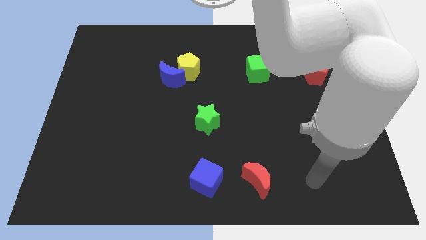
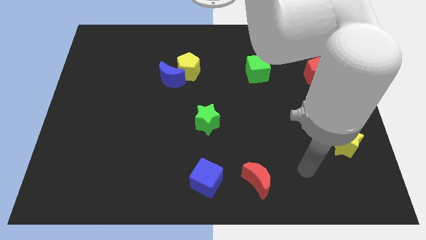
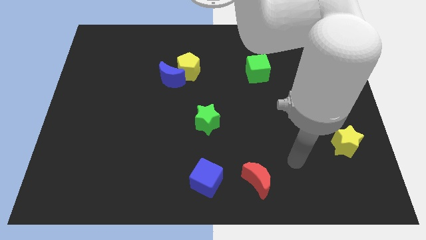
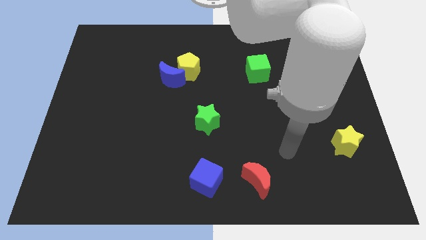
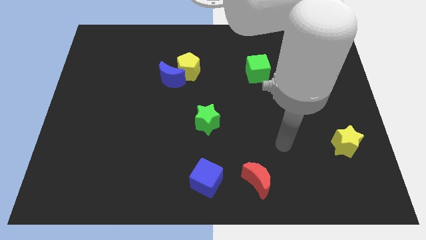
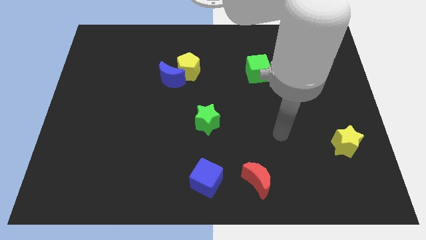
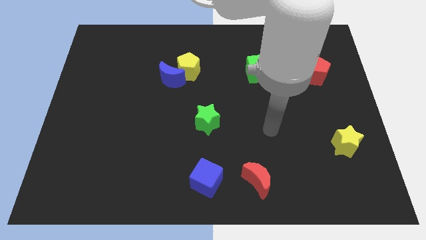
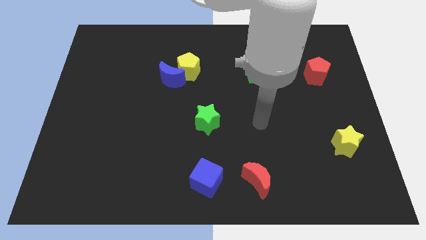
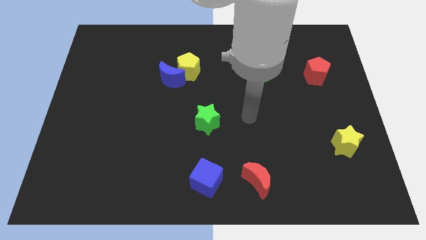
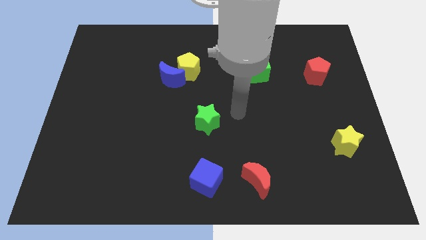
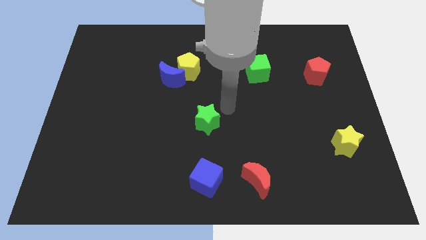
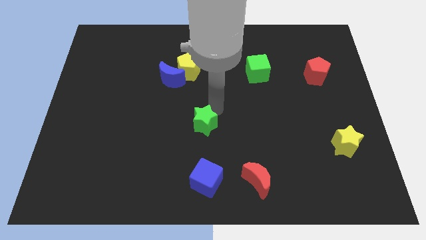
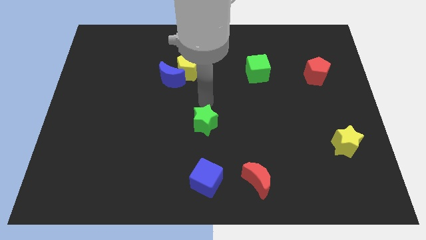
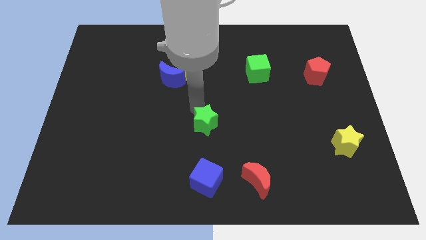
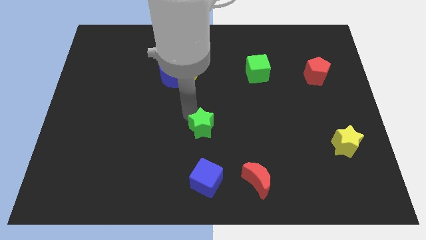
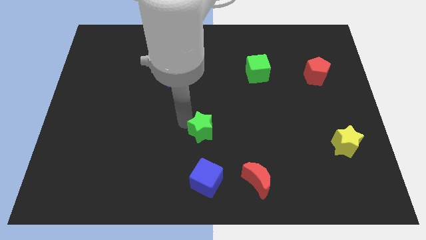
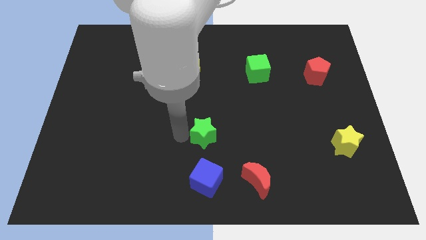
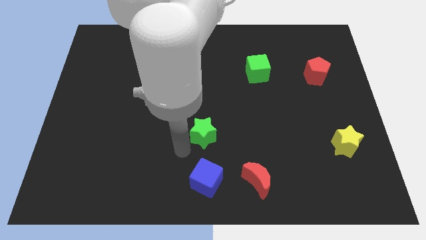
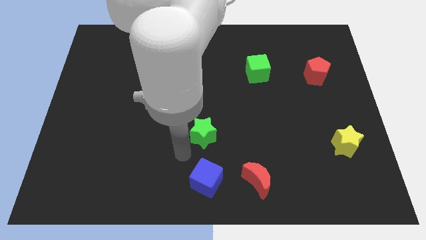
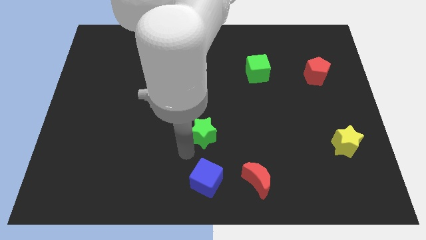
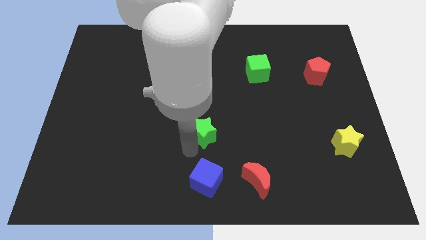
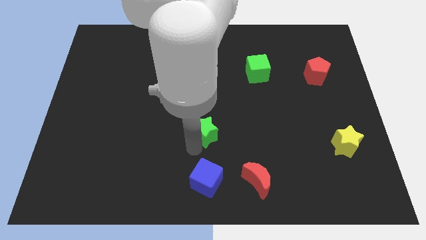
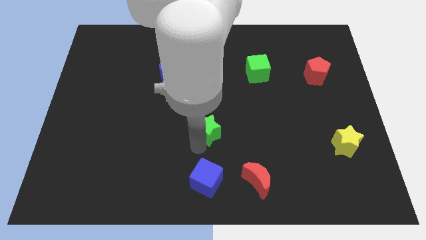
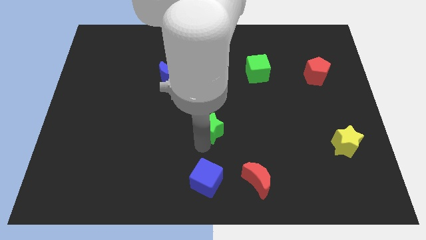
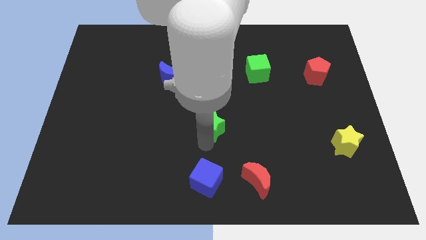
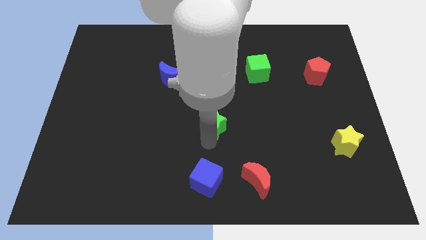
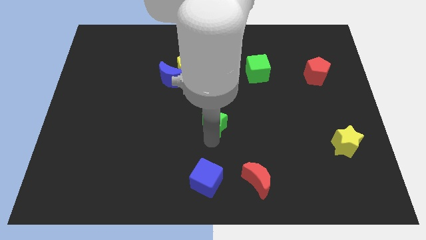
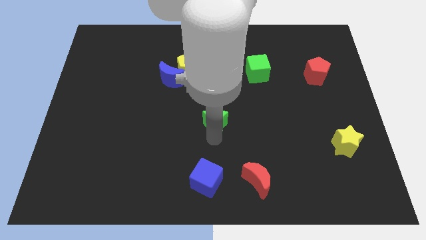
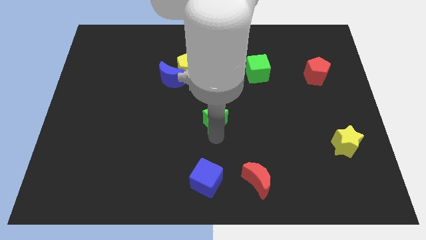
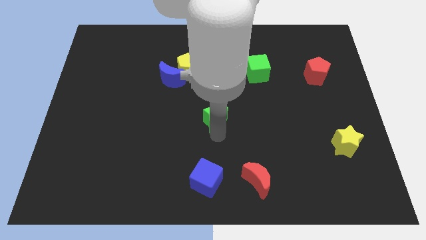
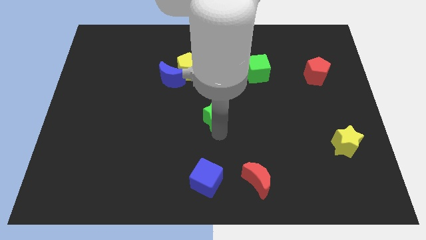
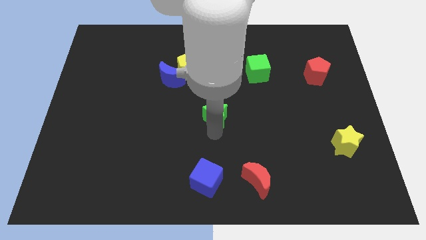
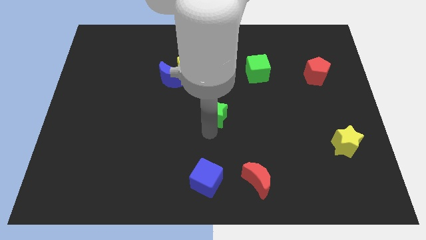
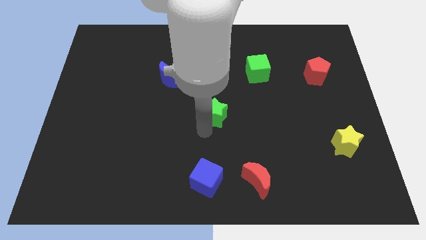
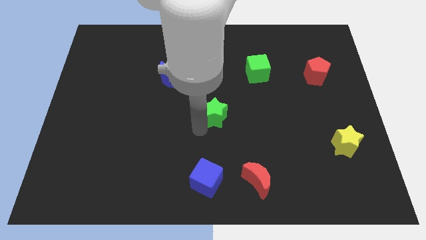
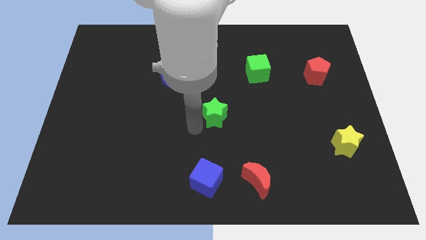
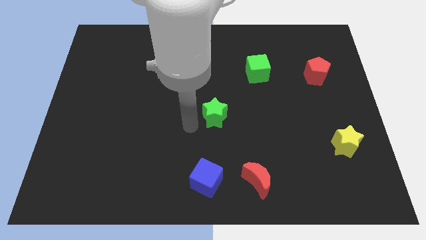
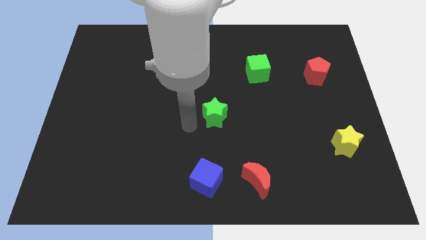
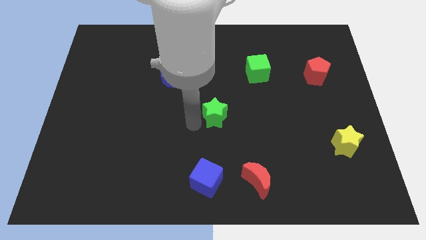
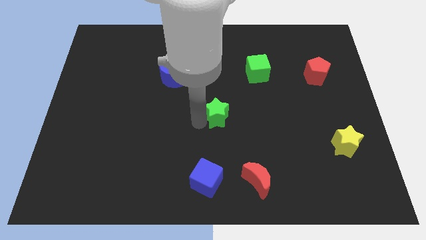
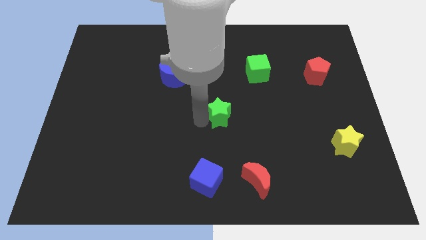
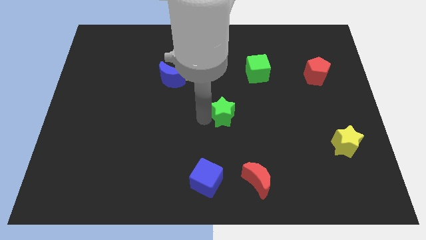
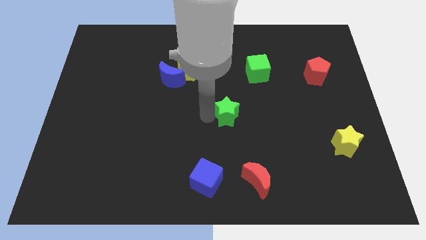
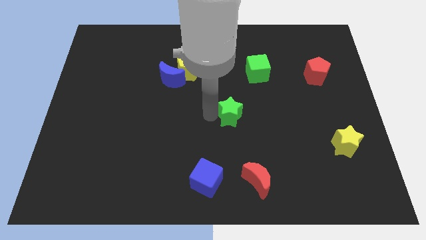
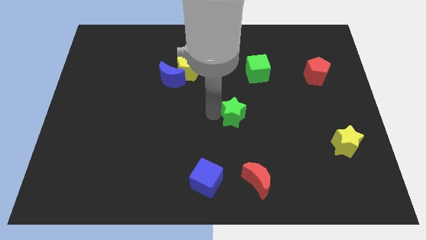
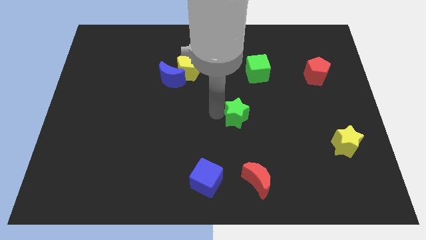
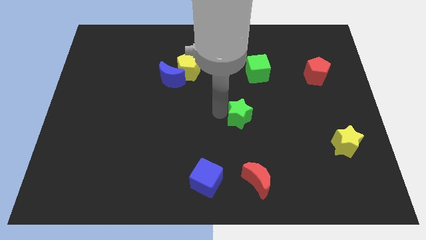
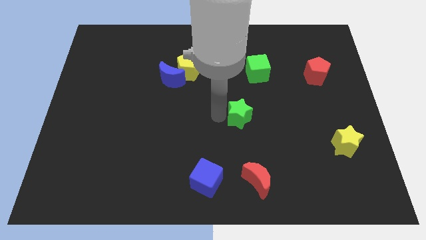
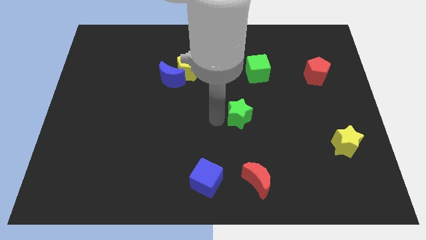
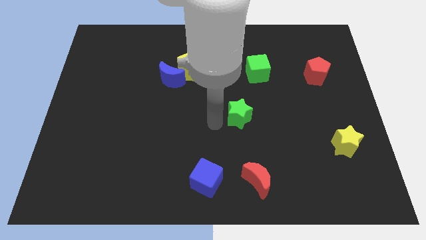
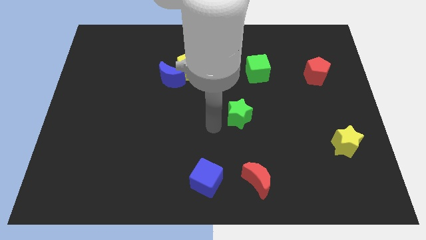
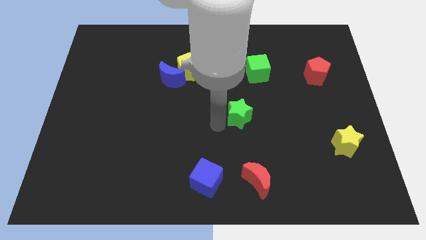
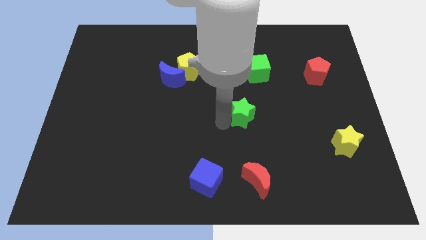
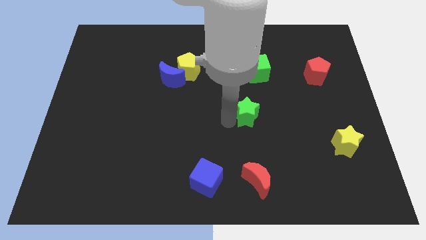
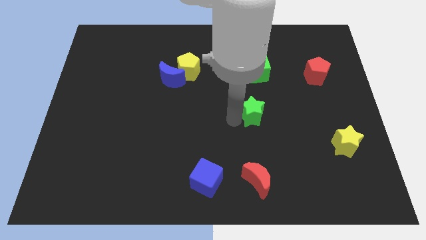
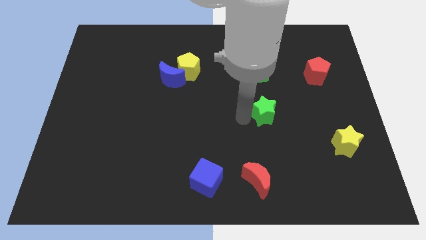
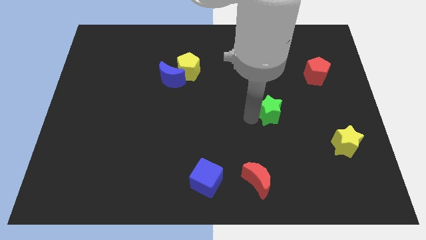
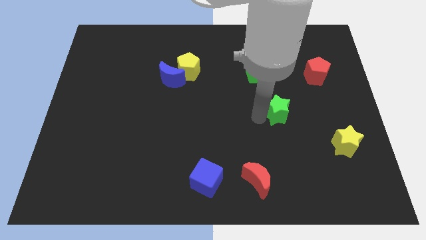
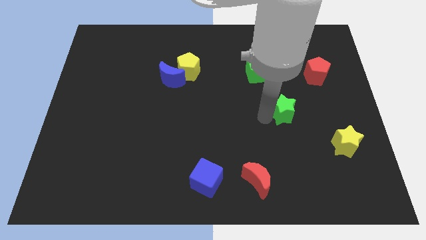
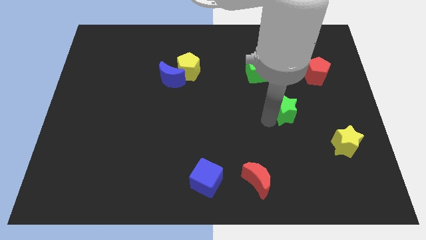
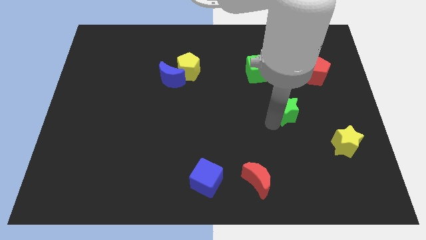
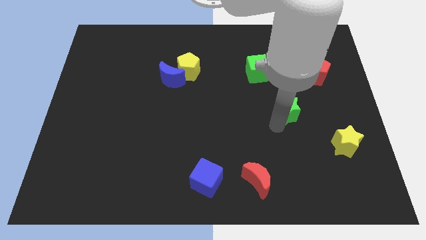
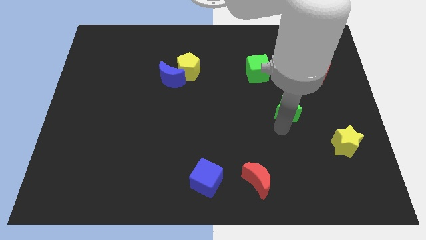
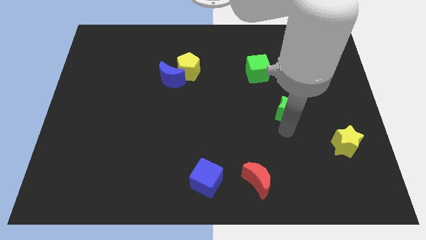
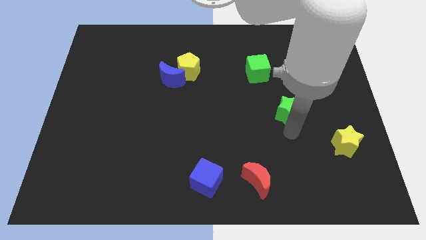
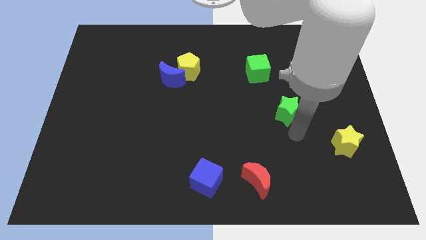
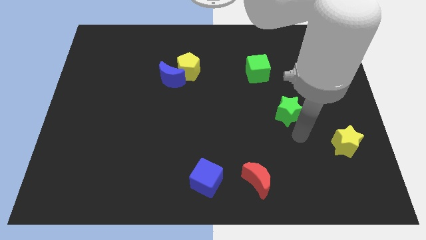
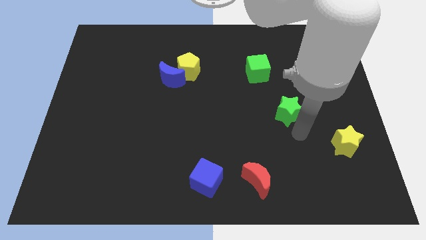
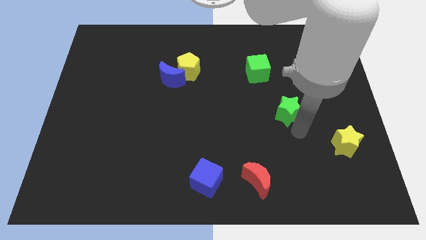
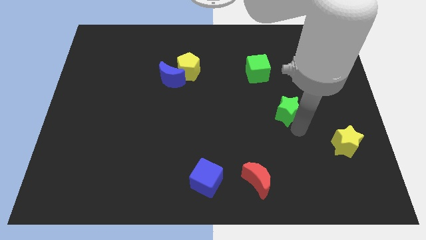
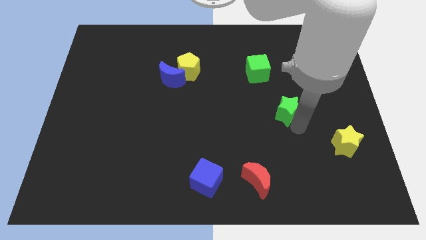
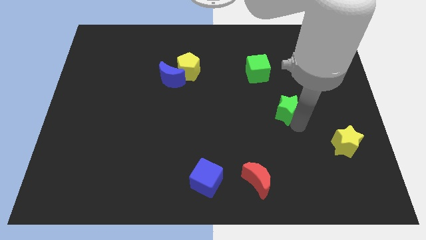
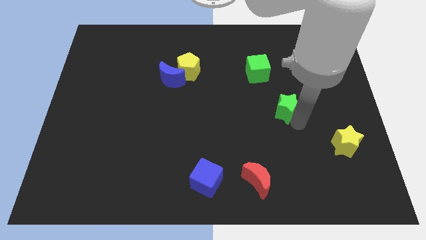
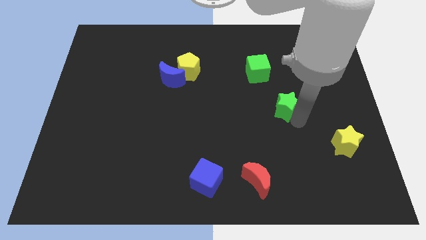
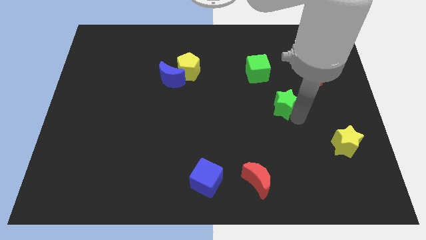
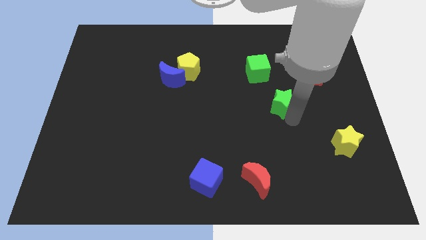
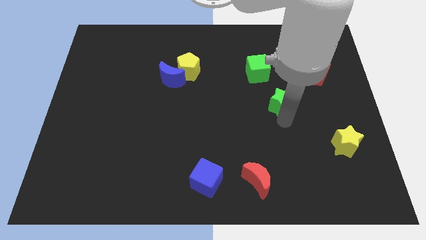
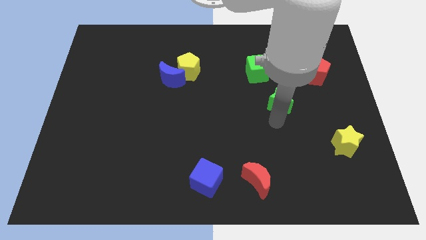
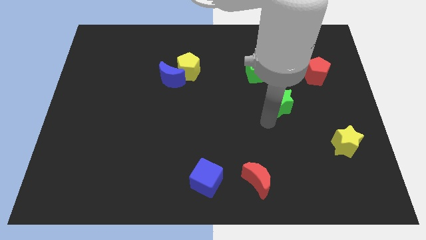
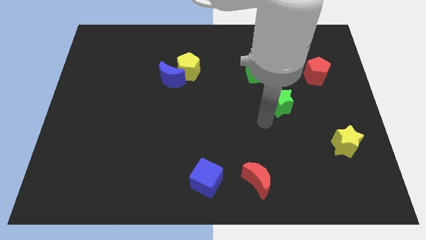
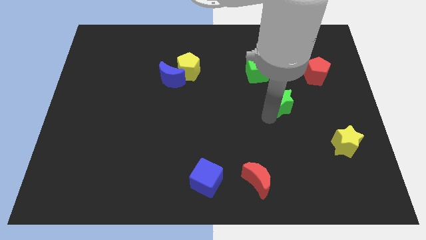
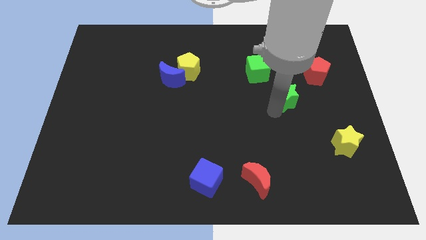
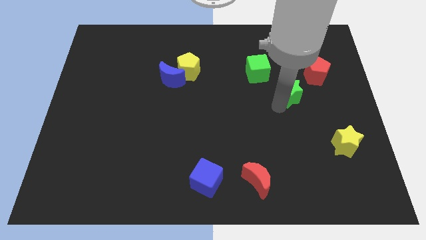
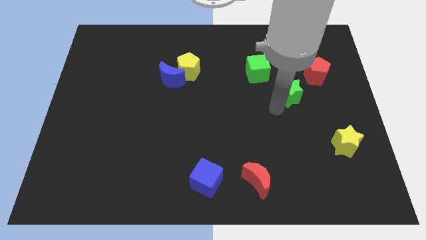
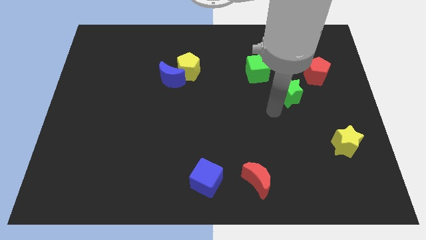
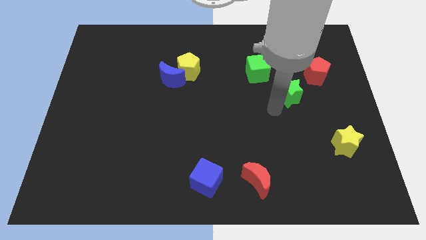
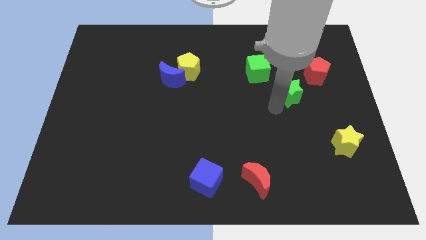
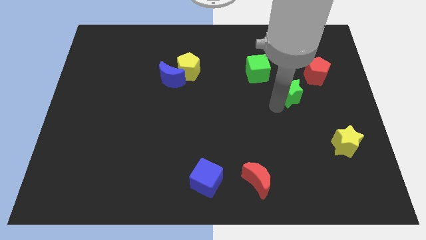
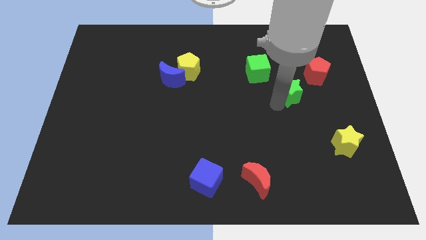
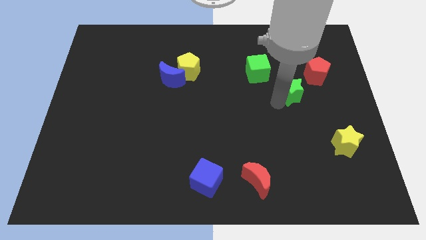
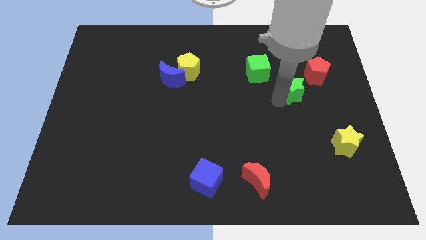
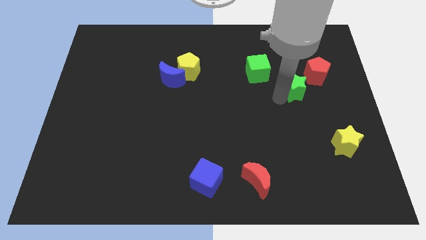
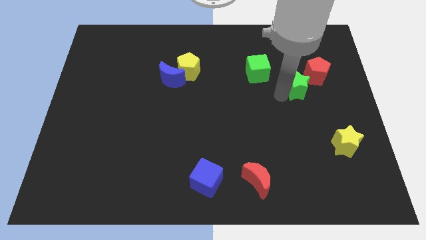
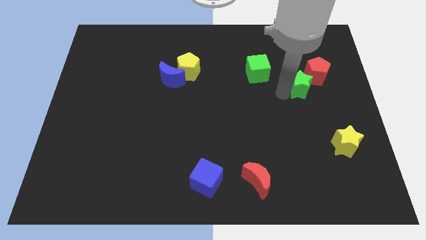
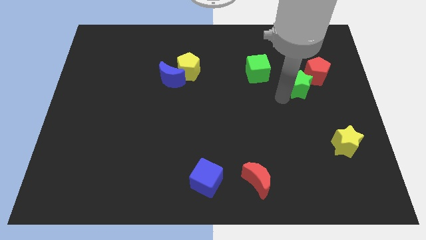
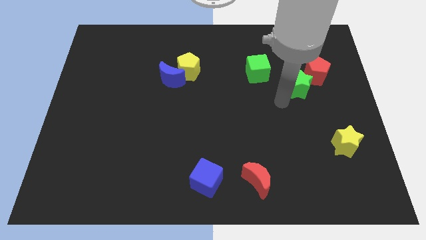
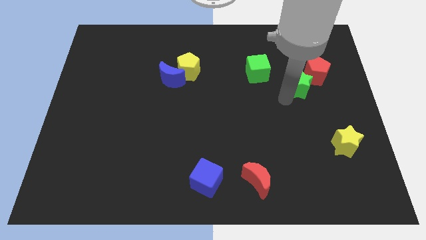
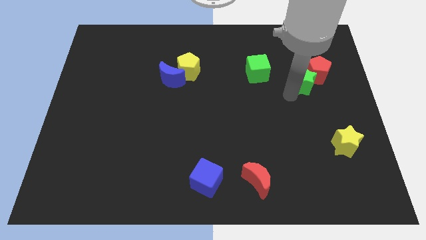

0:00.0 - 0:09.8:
slide the green star to the red pentagon
